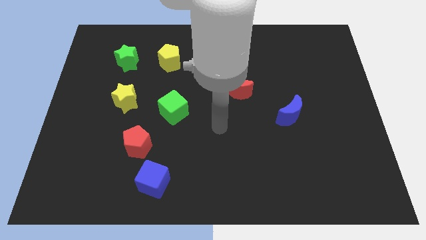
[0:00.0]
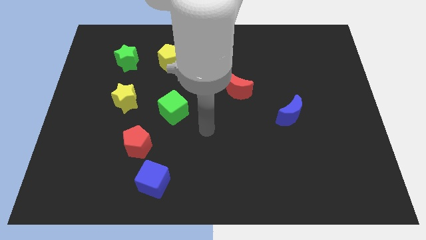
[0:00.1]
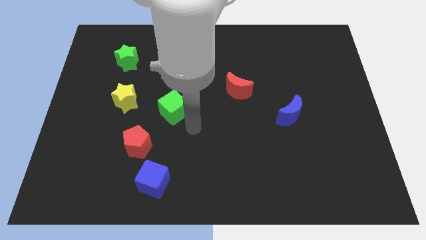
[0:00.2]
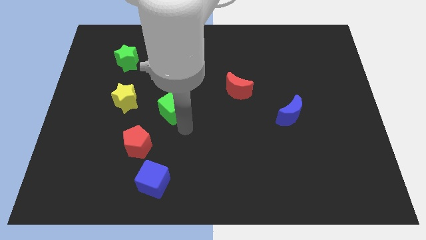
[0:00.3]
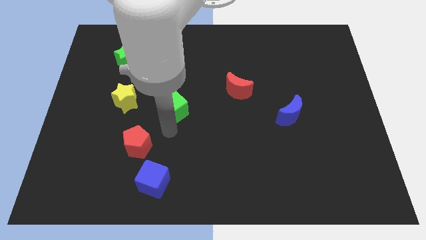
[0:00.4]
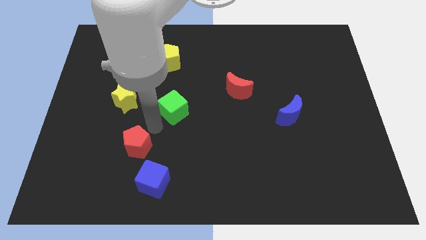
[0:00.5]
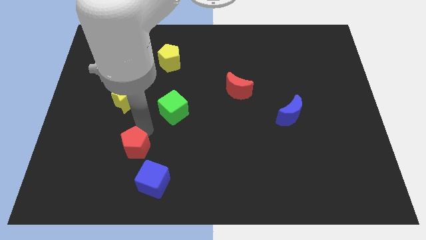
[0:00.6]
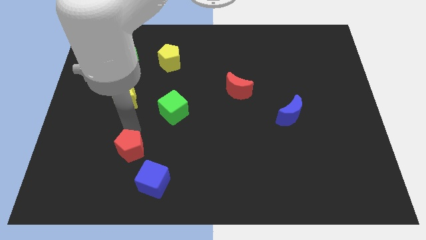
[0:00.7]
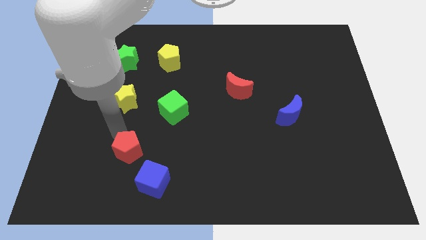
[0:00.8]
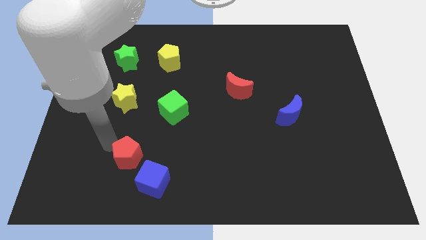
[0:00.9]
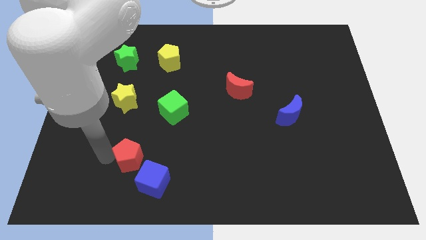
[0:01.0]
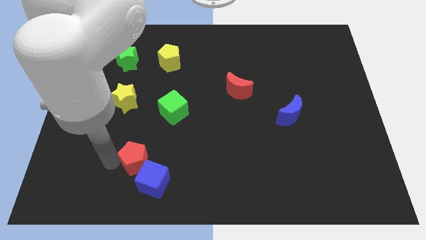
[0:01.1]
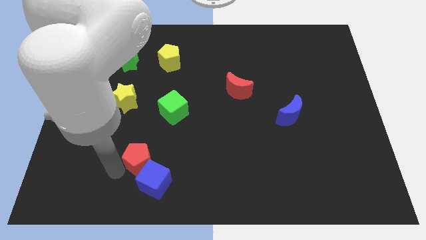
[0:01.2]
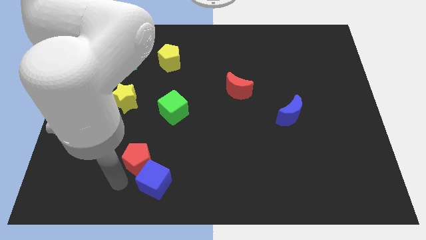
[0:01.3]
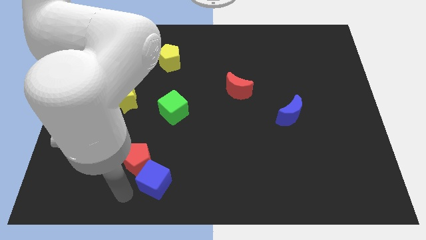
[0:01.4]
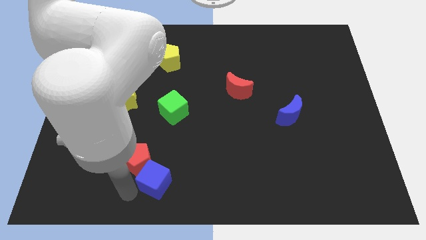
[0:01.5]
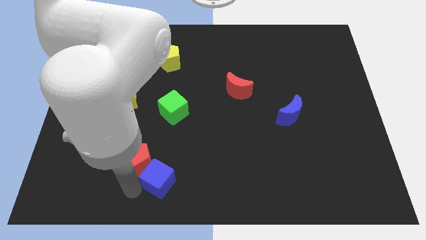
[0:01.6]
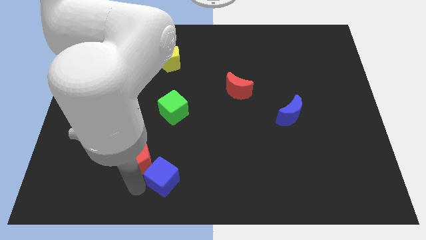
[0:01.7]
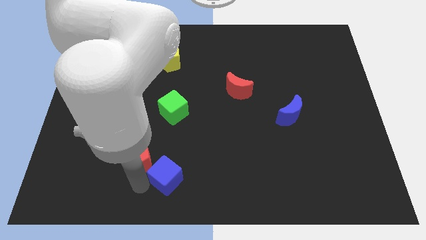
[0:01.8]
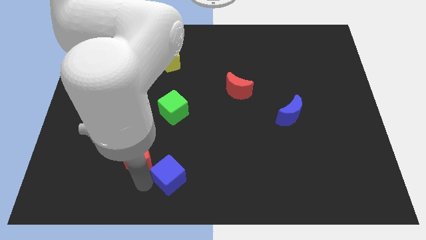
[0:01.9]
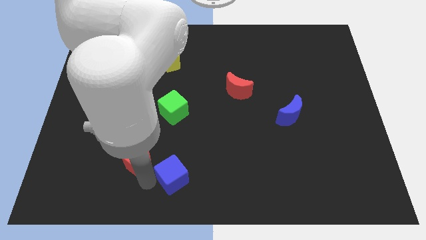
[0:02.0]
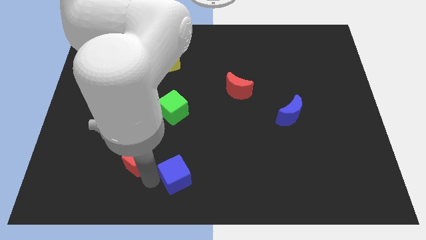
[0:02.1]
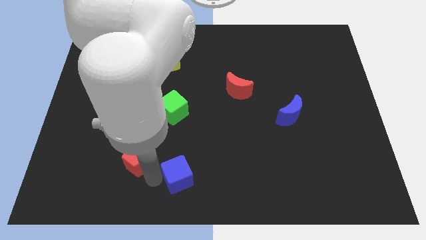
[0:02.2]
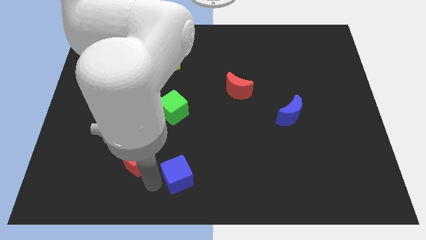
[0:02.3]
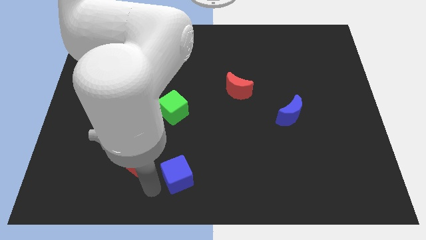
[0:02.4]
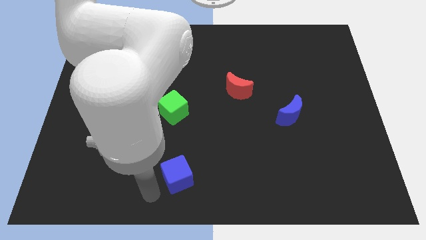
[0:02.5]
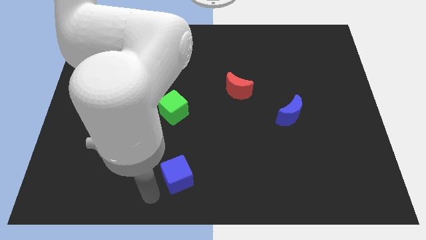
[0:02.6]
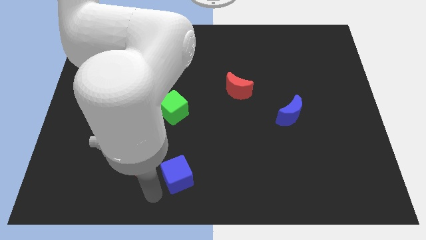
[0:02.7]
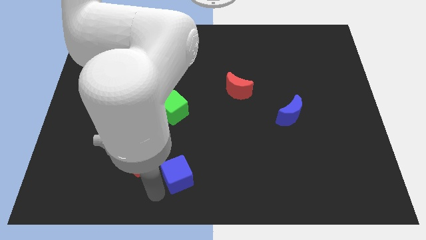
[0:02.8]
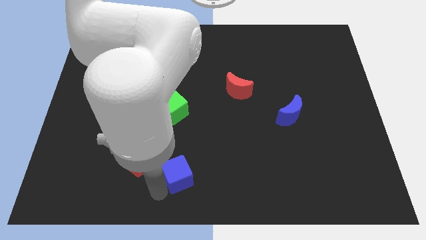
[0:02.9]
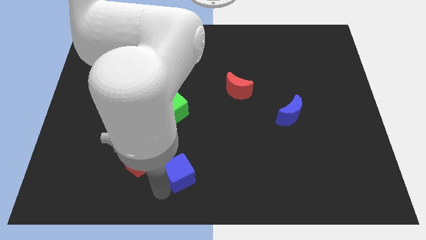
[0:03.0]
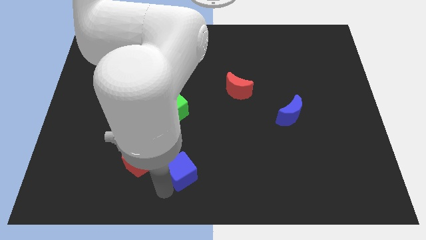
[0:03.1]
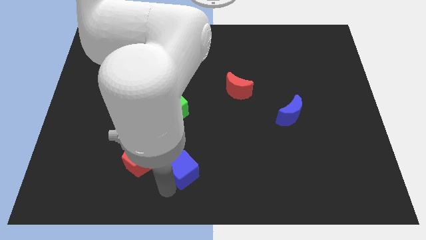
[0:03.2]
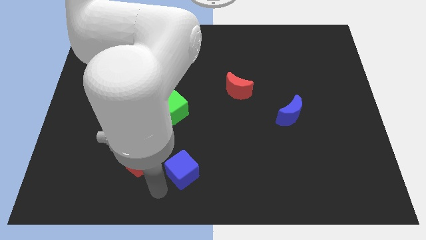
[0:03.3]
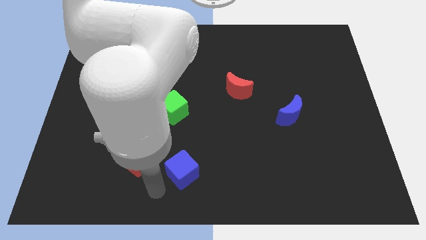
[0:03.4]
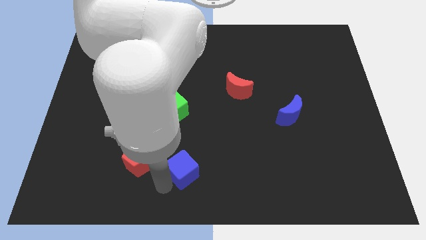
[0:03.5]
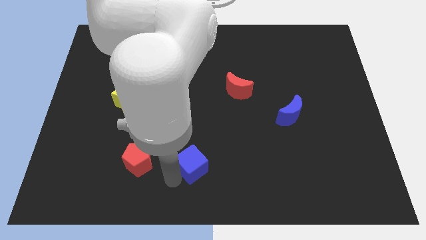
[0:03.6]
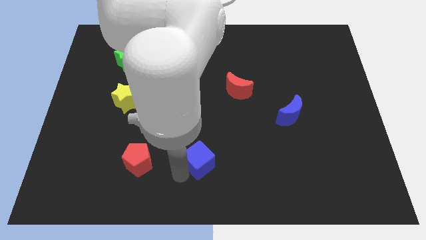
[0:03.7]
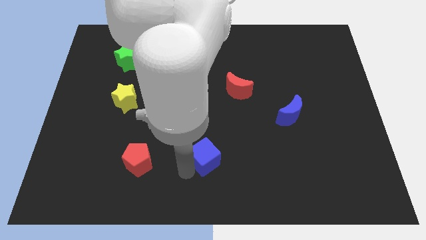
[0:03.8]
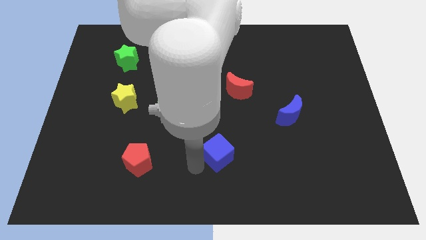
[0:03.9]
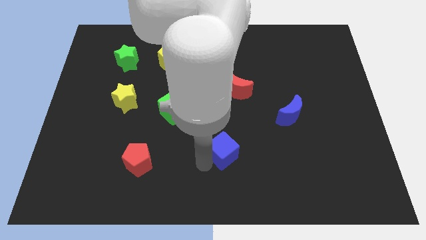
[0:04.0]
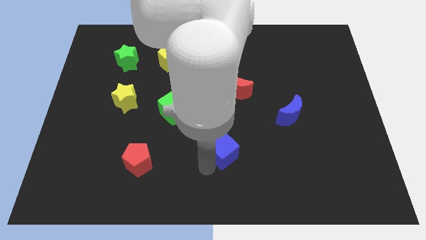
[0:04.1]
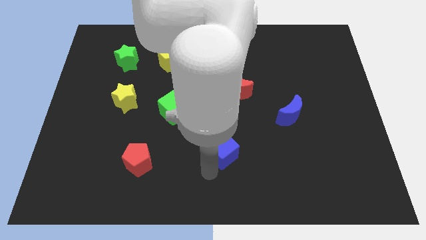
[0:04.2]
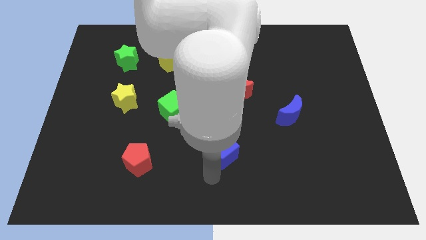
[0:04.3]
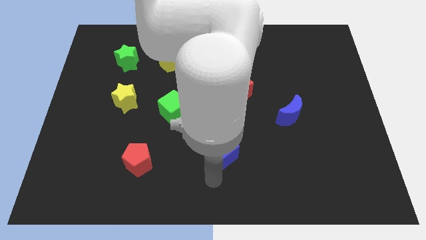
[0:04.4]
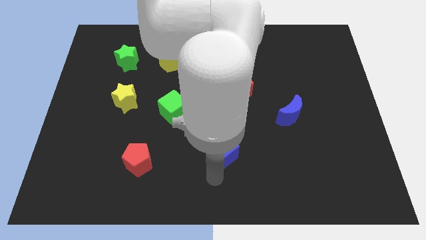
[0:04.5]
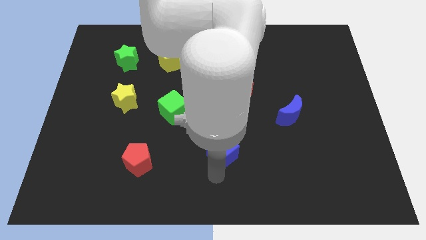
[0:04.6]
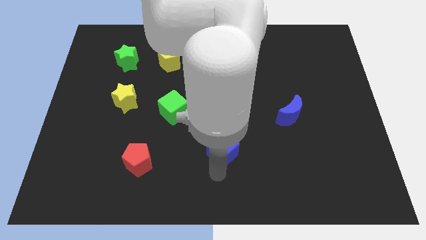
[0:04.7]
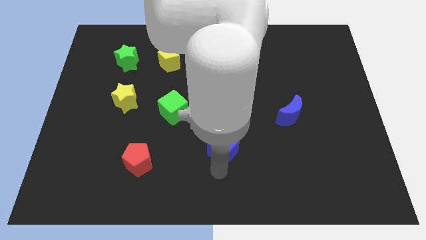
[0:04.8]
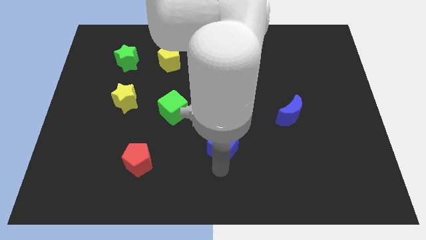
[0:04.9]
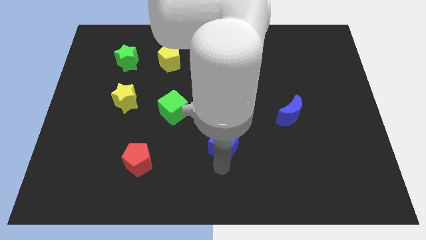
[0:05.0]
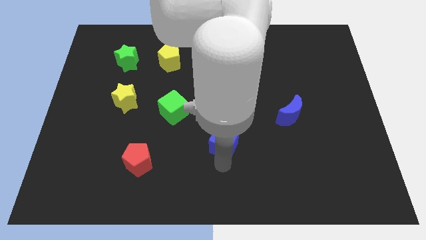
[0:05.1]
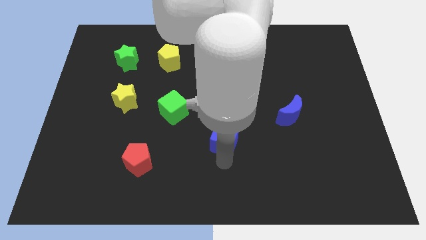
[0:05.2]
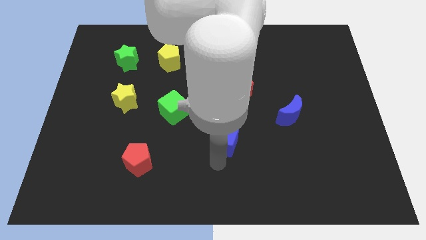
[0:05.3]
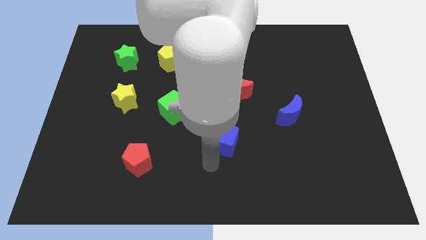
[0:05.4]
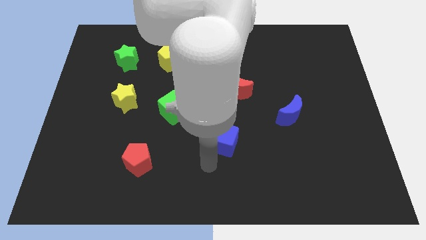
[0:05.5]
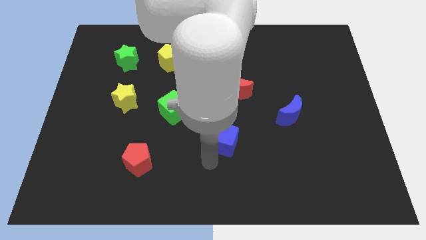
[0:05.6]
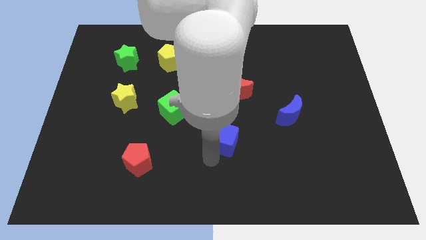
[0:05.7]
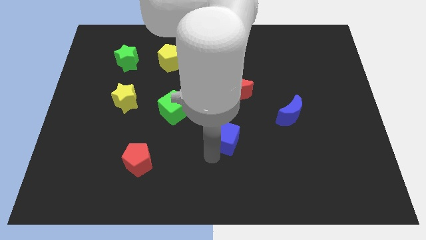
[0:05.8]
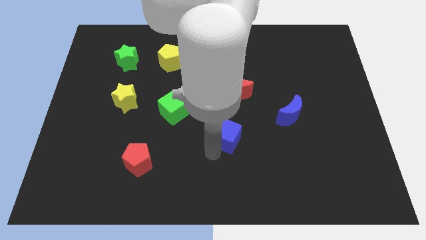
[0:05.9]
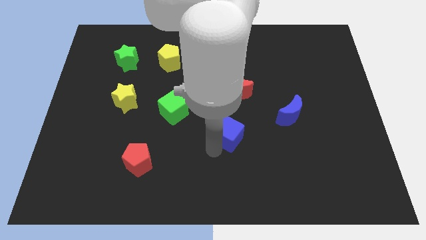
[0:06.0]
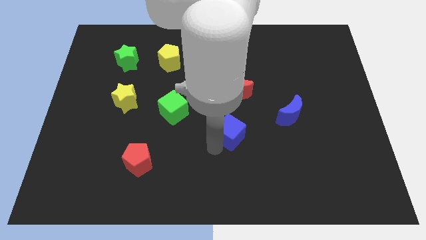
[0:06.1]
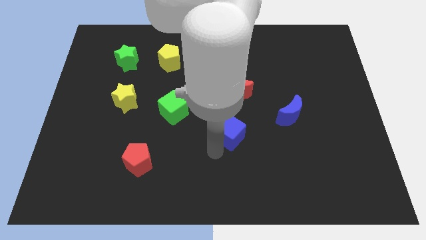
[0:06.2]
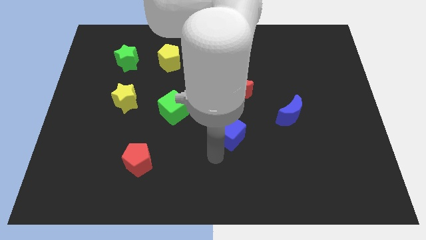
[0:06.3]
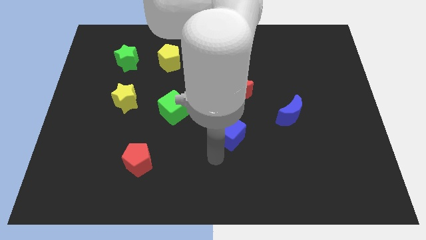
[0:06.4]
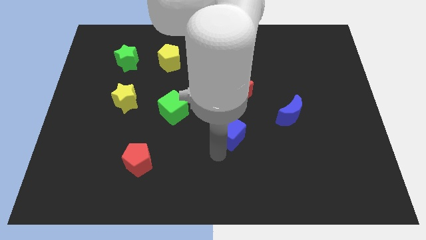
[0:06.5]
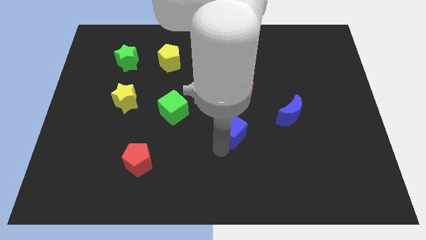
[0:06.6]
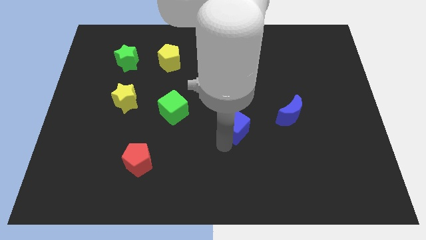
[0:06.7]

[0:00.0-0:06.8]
slide the blue cube diagonally upwards and right

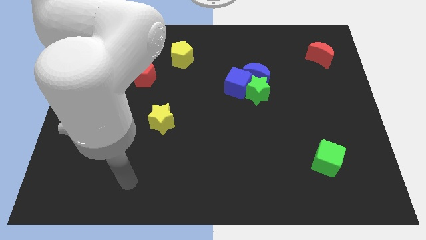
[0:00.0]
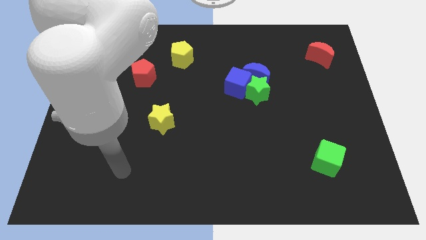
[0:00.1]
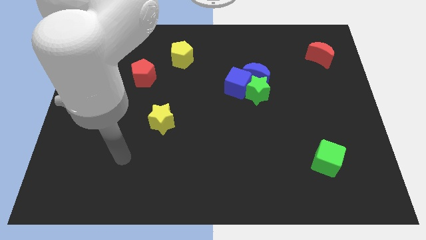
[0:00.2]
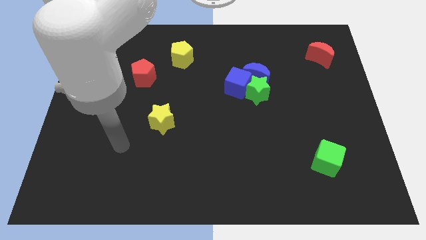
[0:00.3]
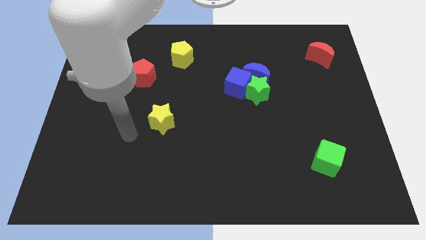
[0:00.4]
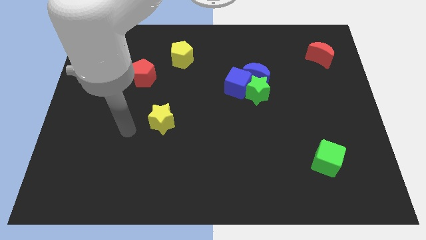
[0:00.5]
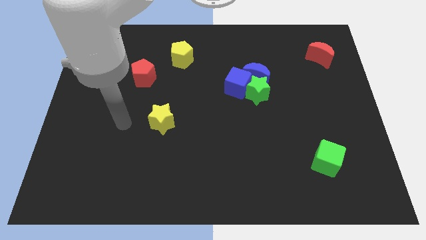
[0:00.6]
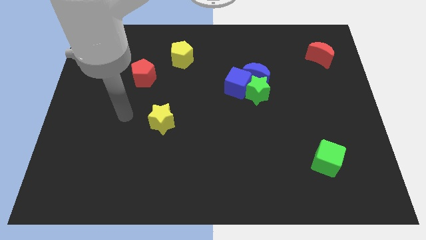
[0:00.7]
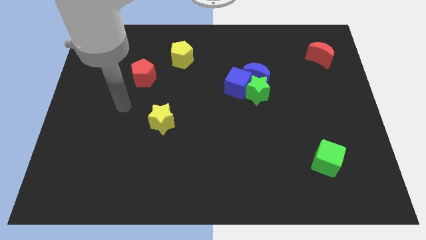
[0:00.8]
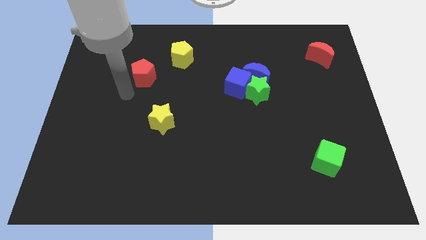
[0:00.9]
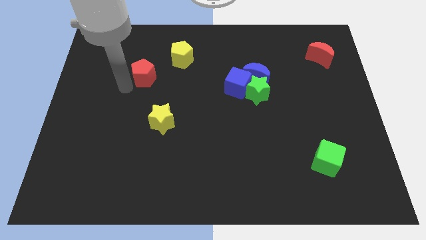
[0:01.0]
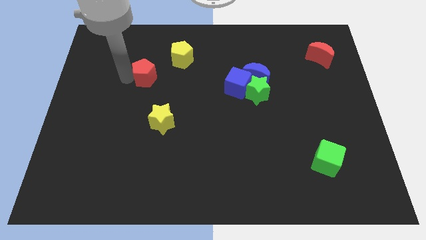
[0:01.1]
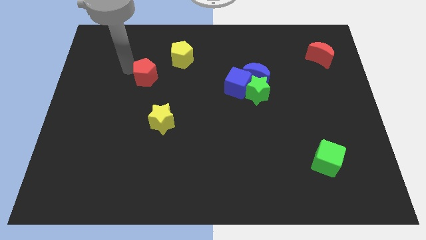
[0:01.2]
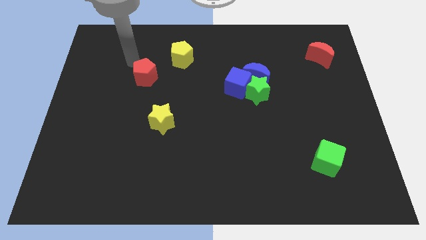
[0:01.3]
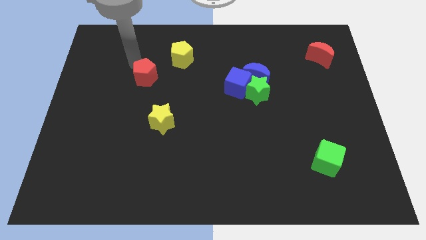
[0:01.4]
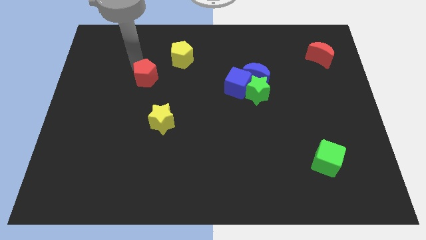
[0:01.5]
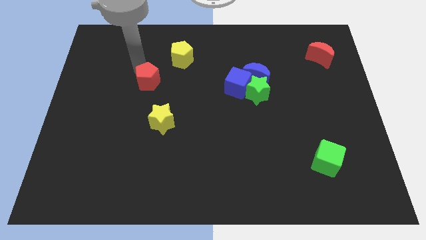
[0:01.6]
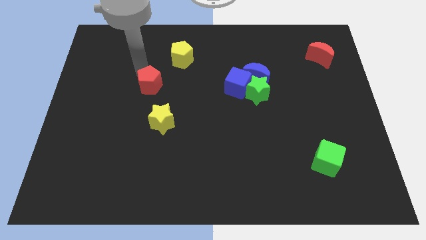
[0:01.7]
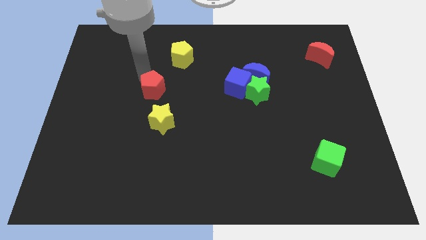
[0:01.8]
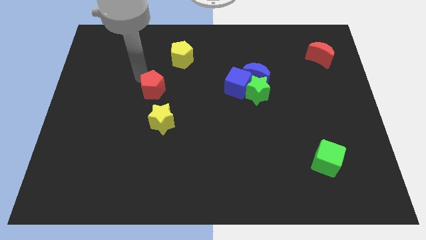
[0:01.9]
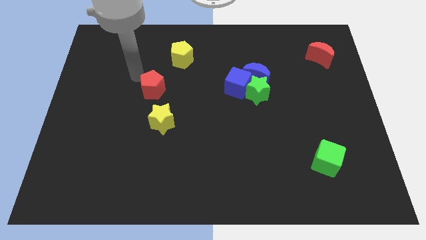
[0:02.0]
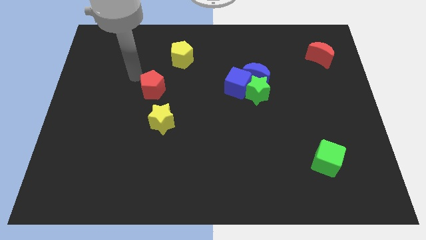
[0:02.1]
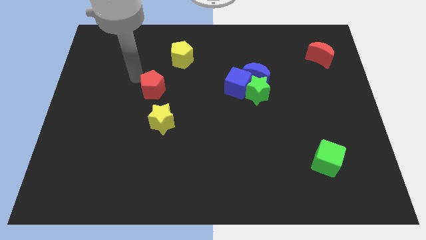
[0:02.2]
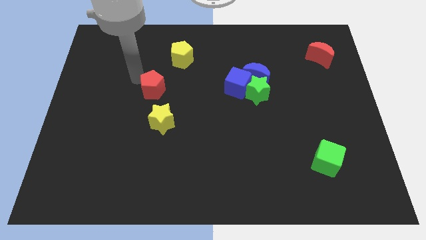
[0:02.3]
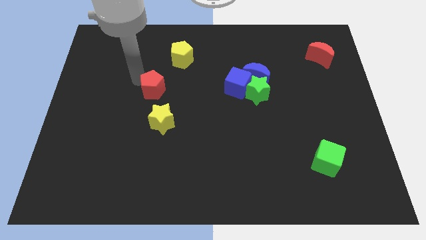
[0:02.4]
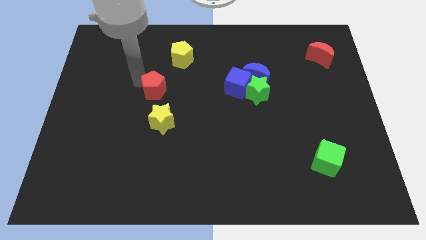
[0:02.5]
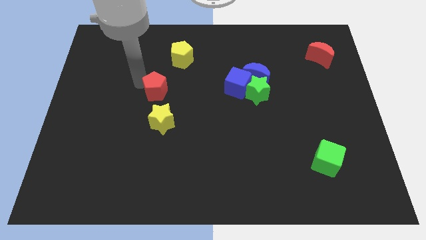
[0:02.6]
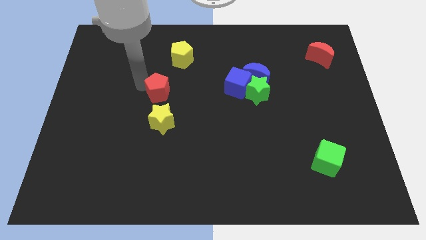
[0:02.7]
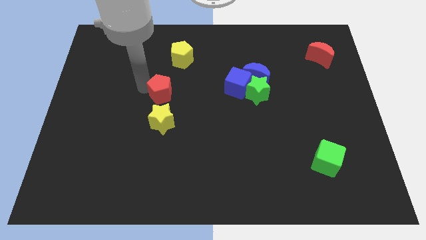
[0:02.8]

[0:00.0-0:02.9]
push the red pentagon somewhat diagonally downwards and right
